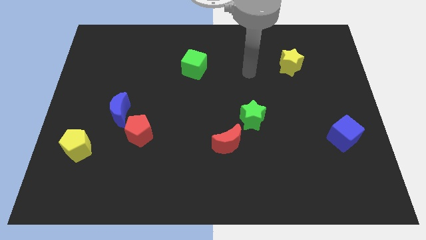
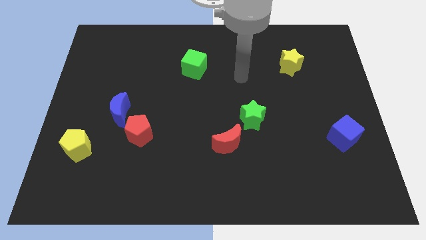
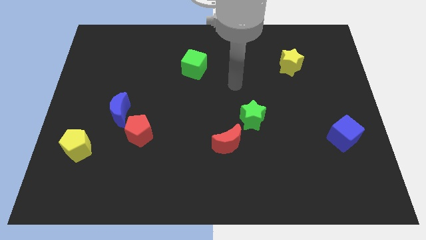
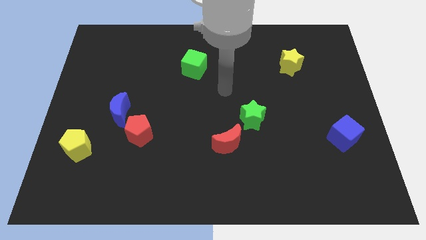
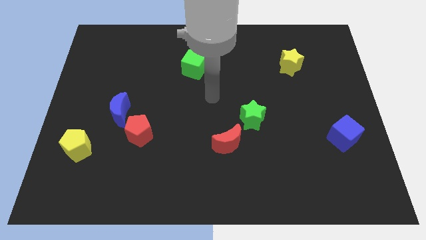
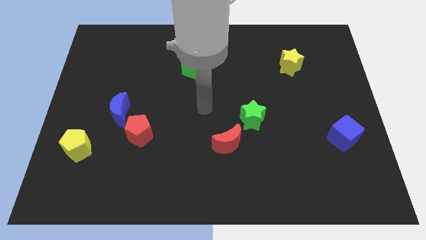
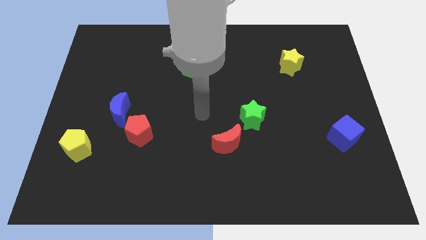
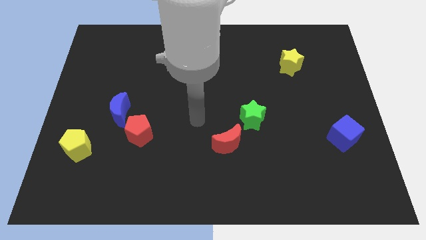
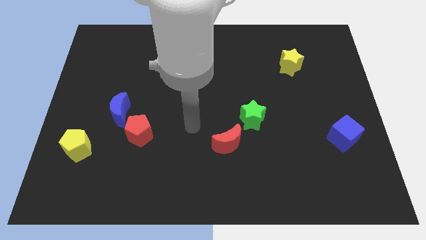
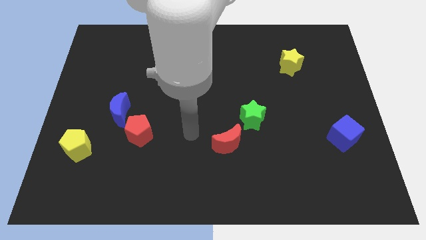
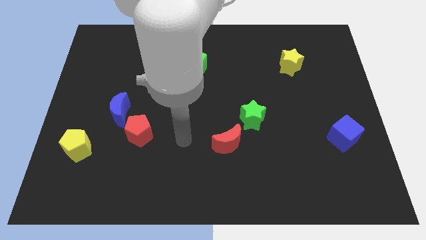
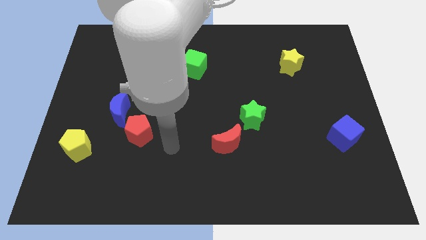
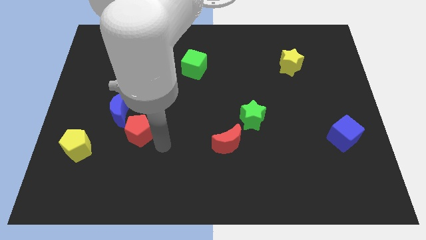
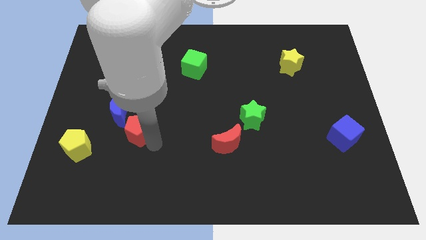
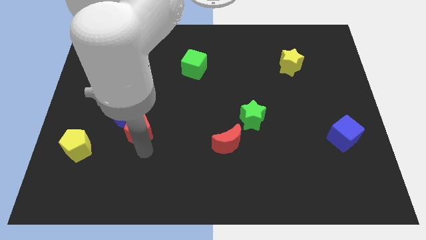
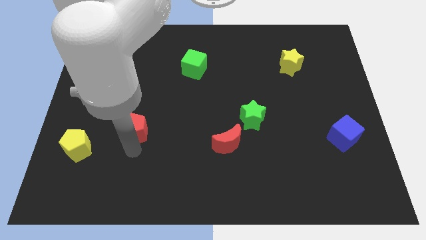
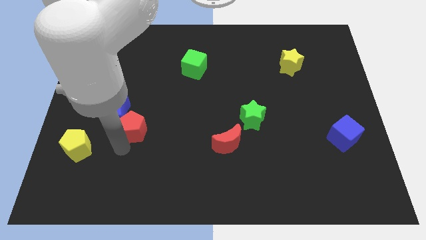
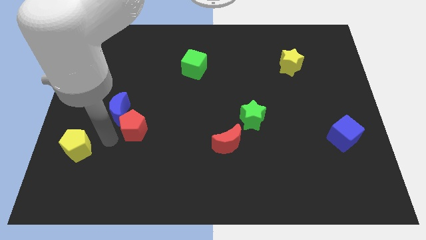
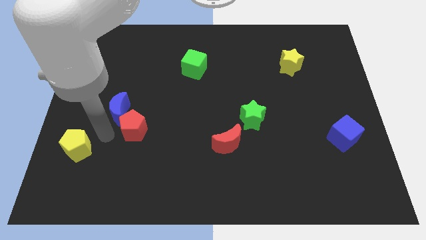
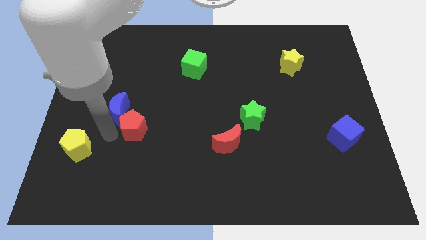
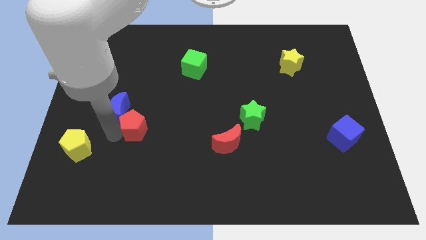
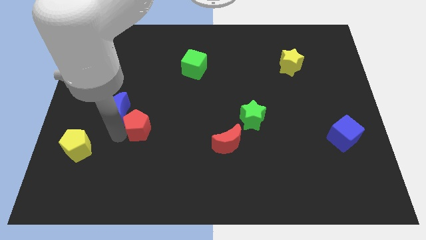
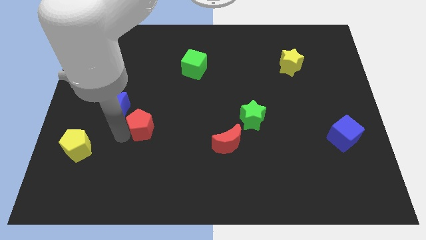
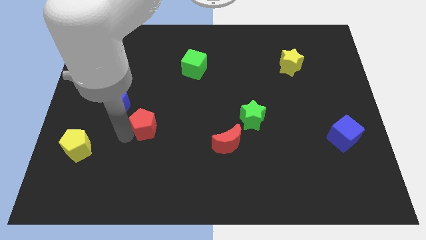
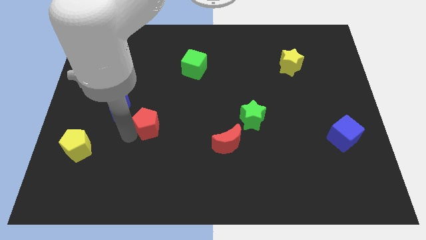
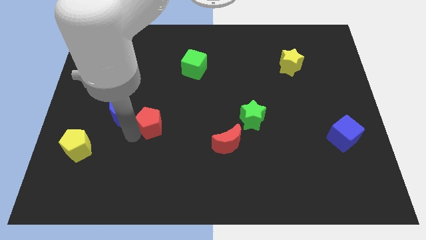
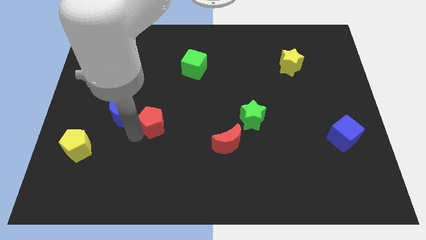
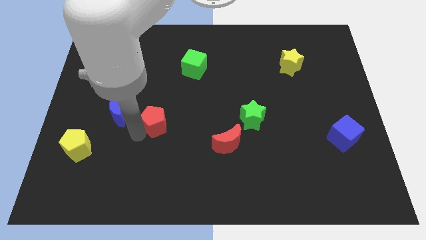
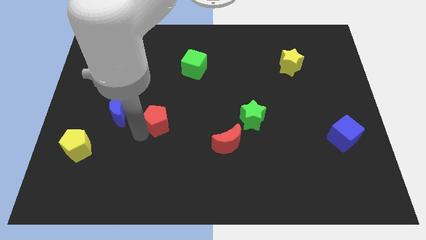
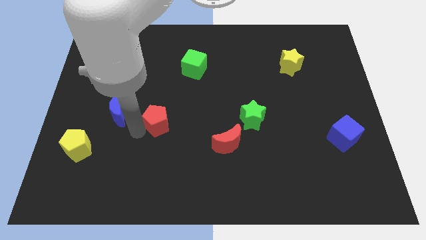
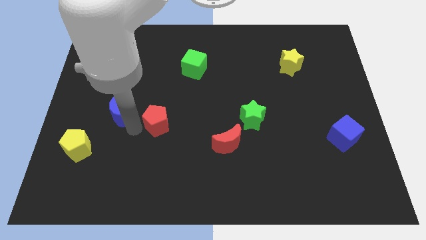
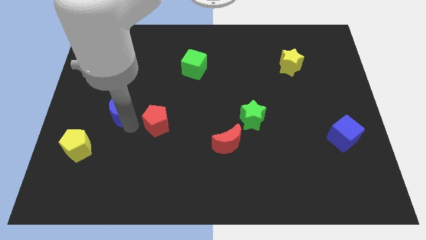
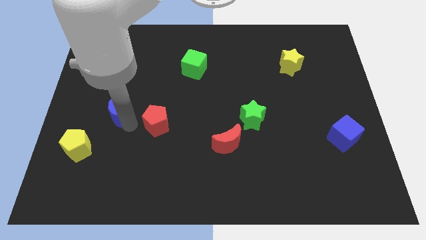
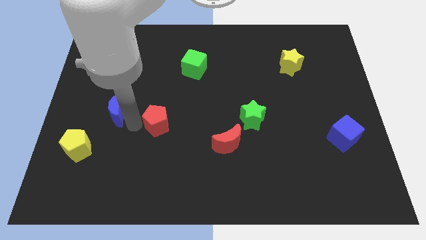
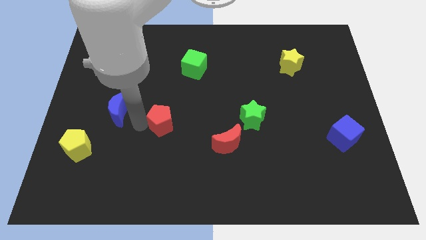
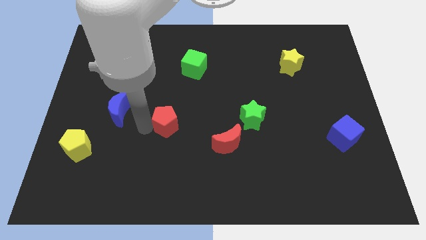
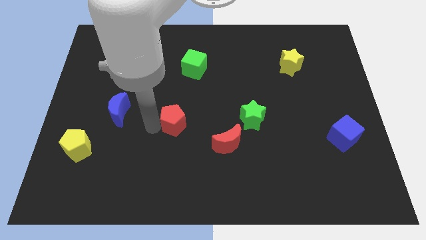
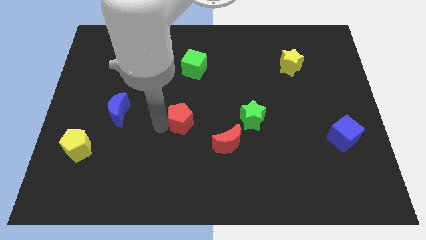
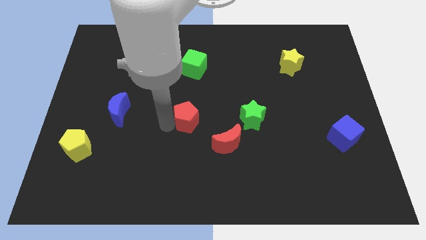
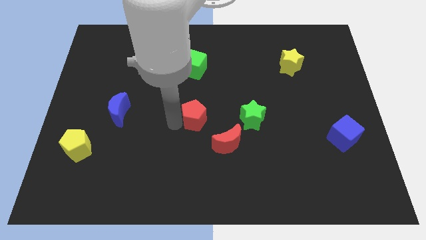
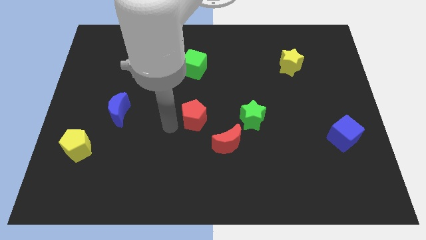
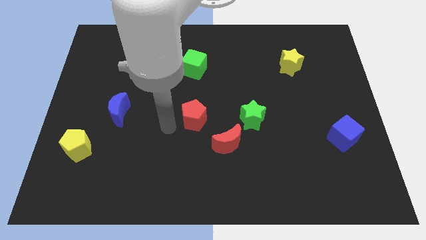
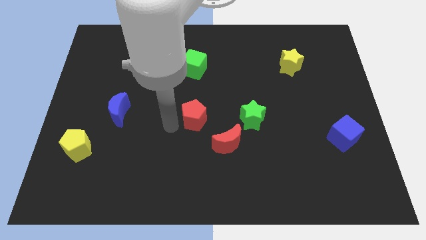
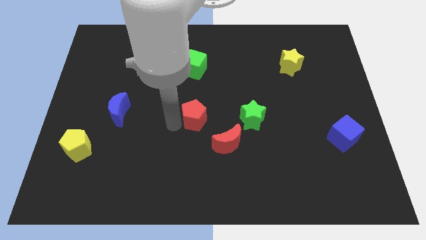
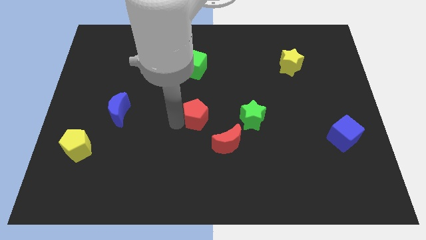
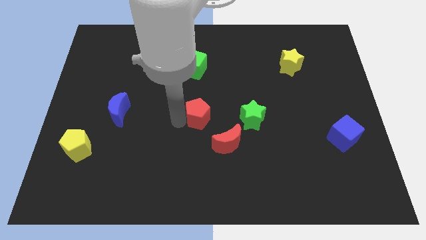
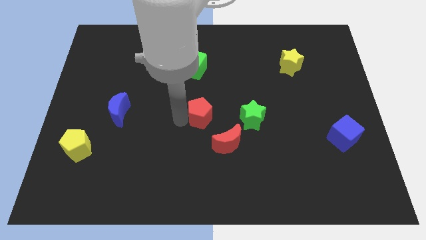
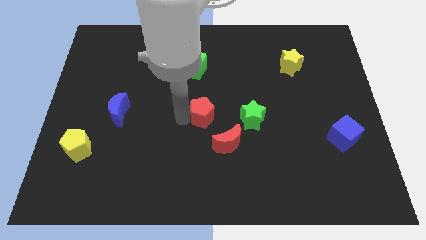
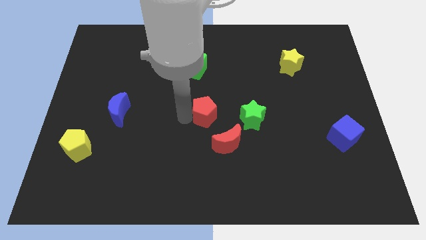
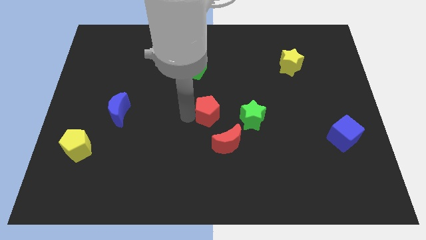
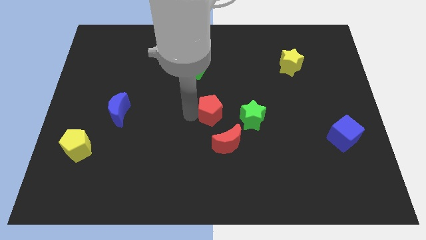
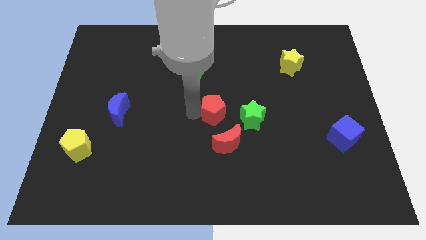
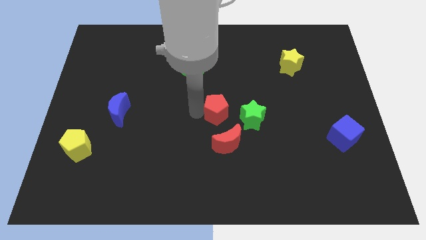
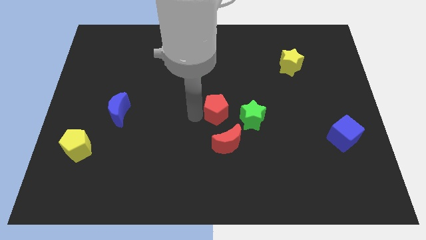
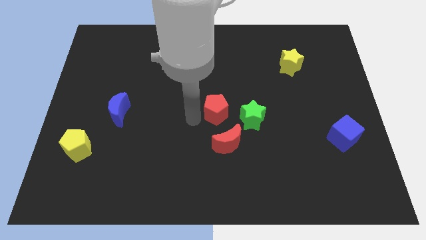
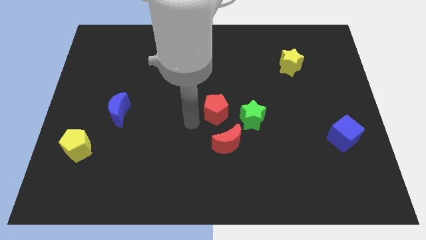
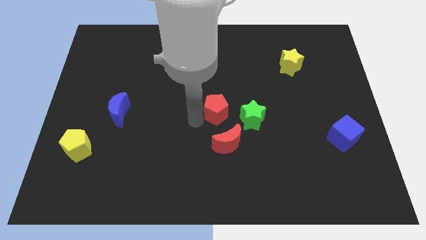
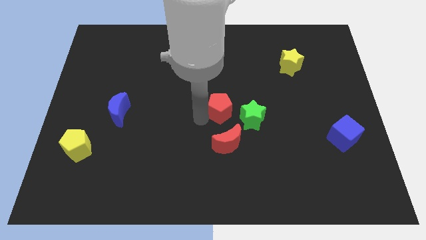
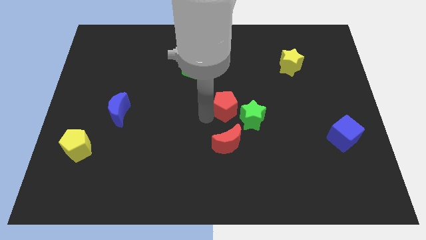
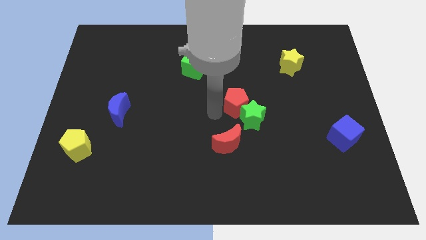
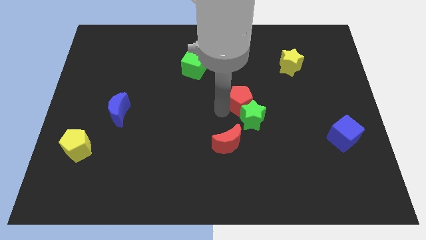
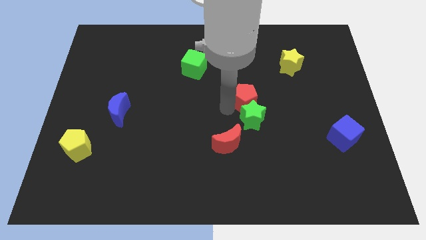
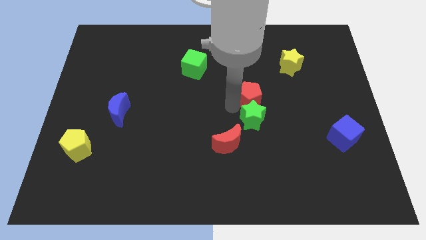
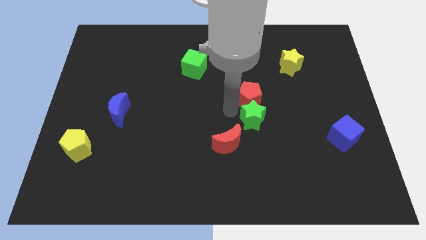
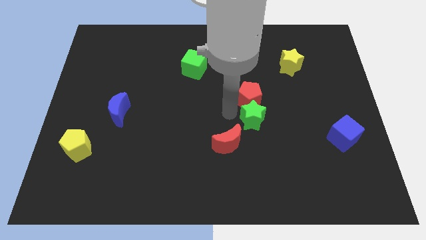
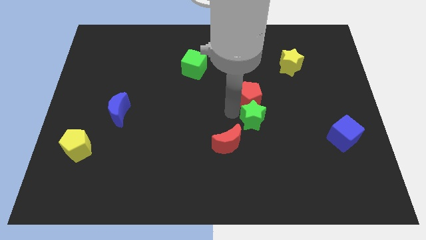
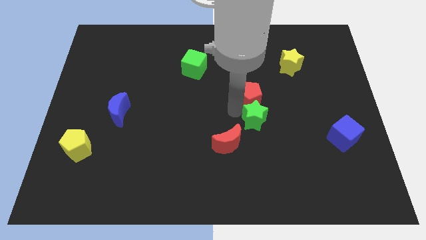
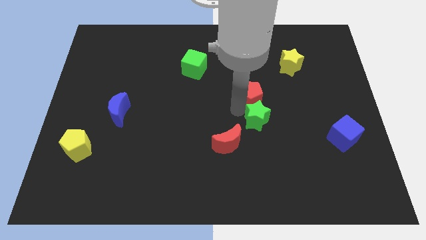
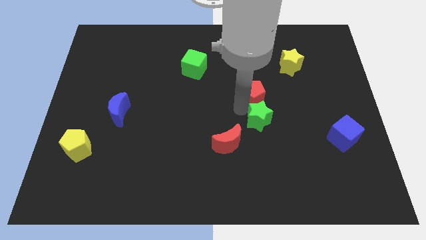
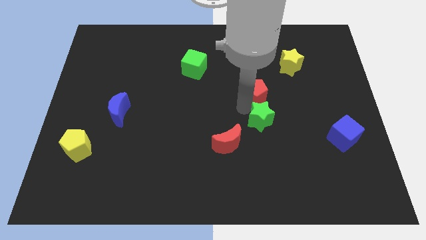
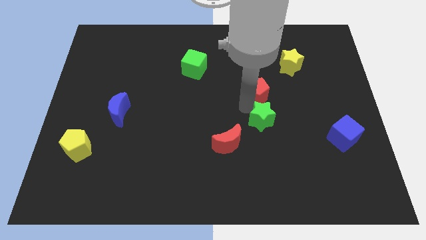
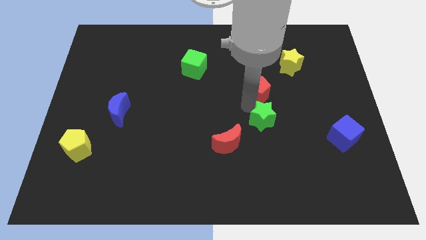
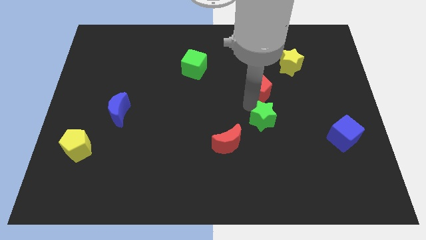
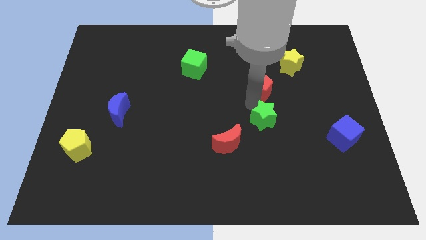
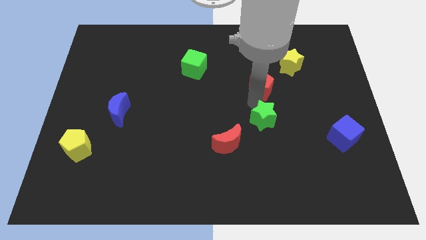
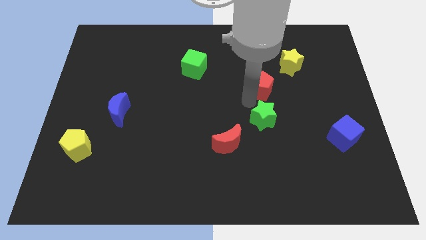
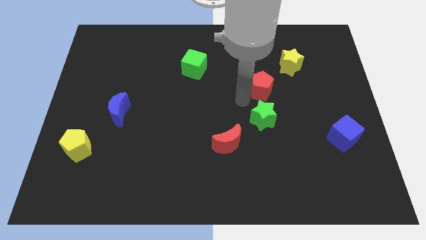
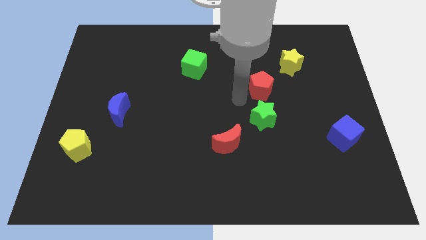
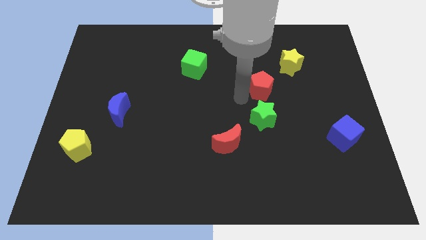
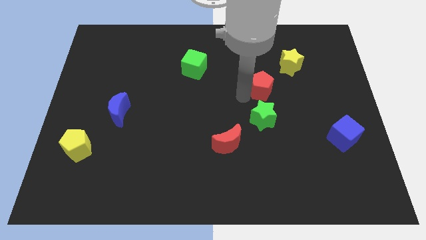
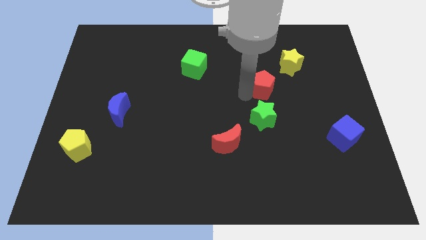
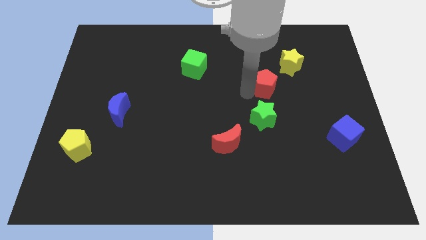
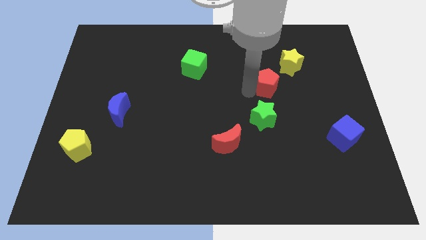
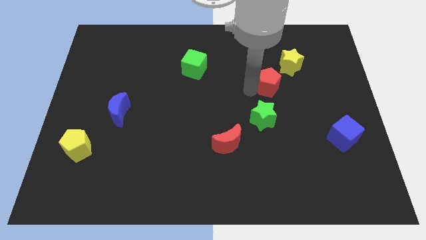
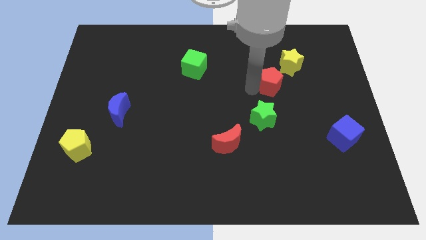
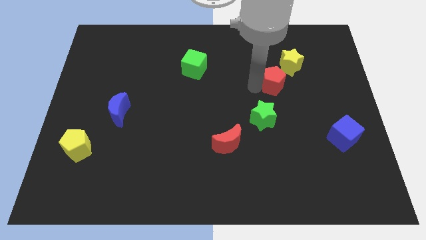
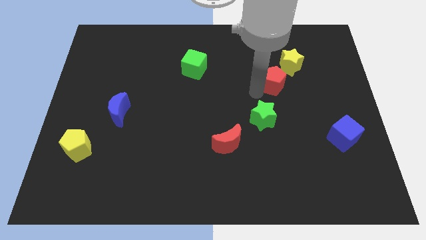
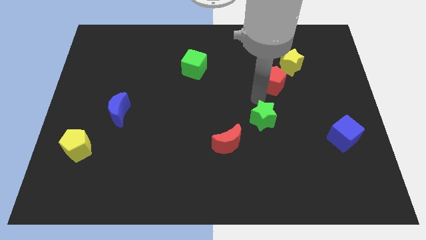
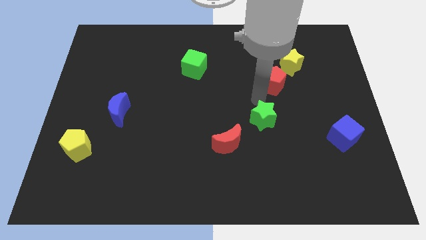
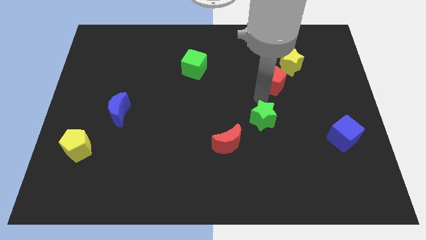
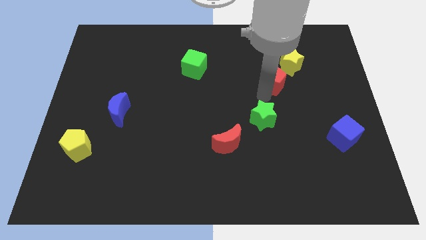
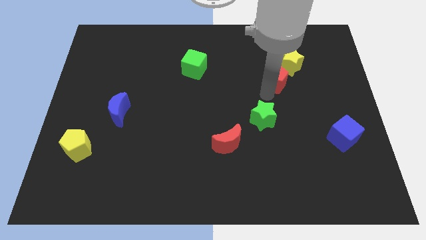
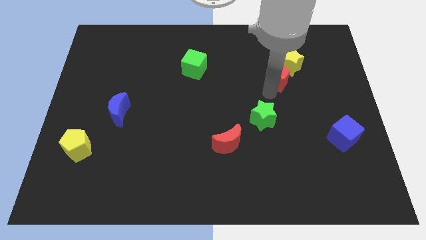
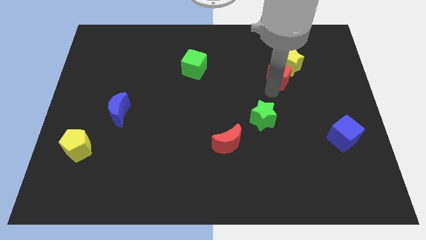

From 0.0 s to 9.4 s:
push the red pentagon close to the yellow star
